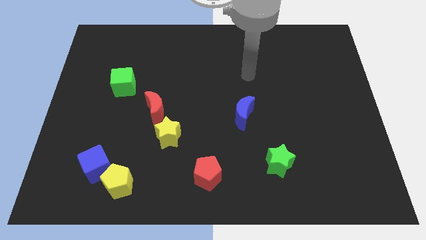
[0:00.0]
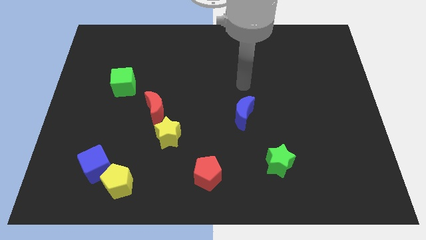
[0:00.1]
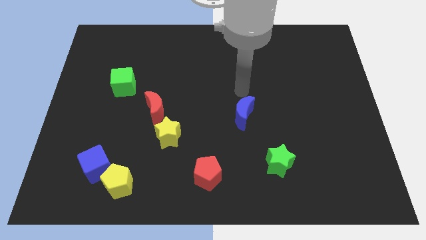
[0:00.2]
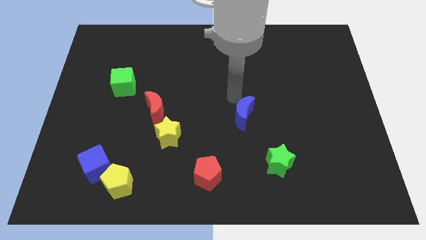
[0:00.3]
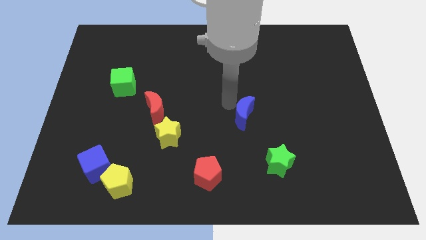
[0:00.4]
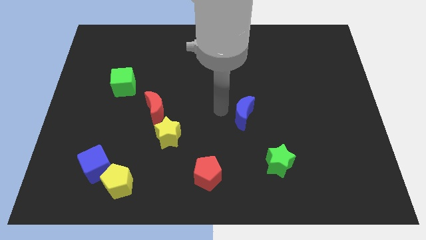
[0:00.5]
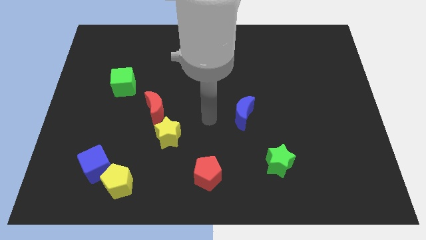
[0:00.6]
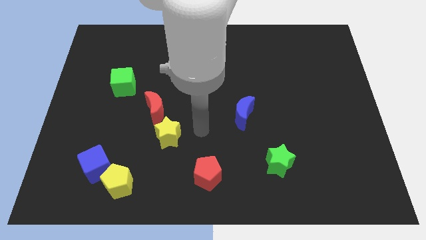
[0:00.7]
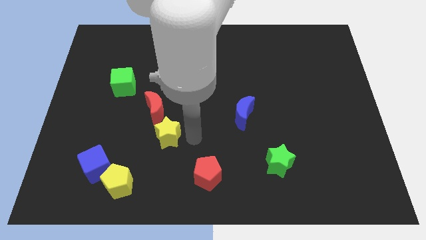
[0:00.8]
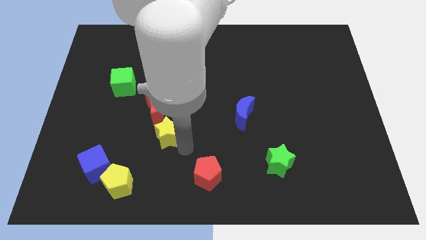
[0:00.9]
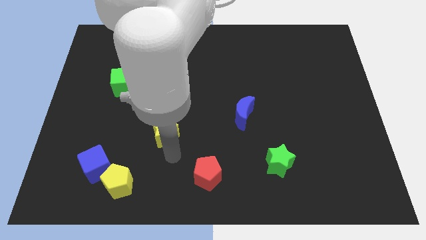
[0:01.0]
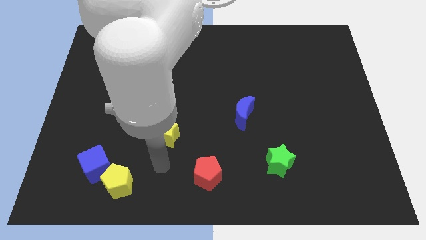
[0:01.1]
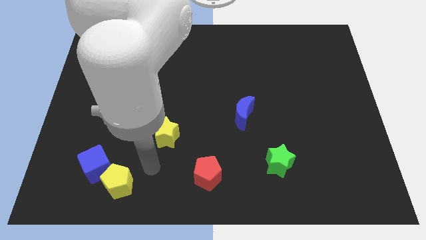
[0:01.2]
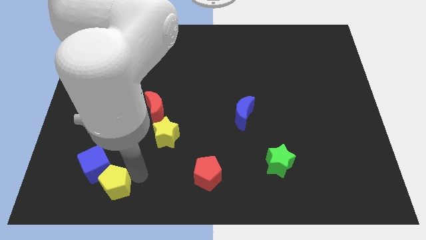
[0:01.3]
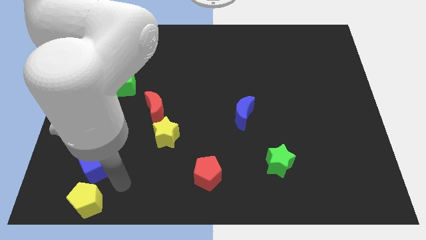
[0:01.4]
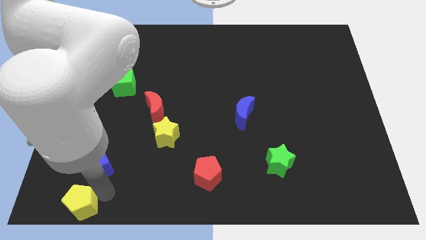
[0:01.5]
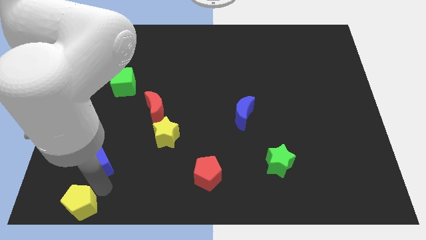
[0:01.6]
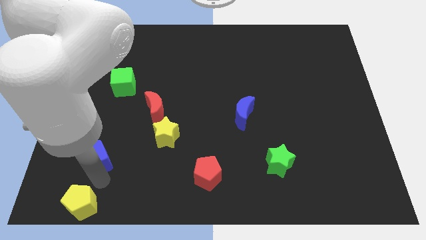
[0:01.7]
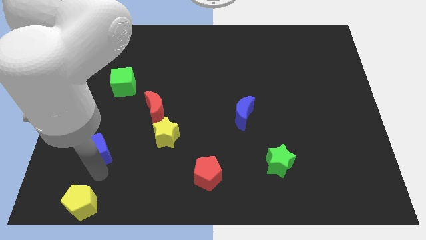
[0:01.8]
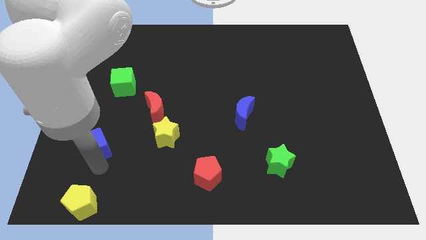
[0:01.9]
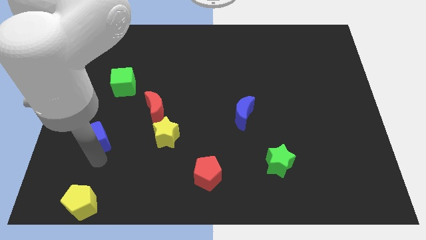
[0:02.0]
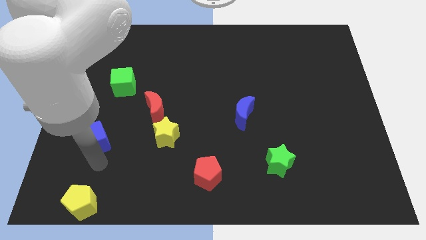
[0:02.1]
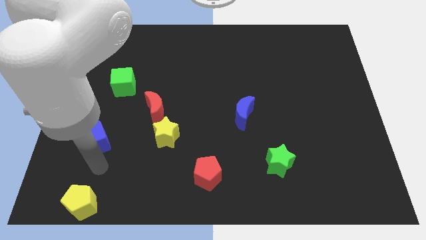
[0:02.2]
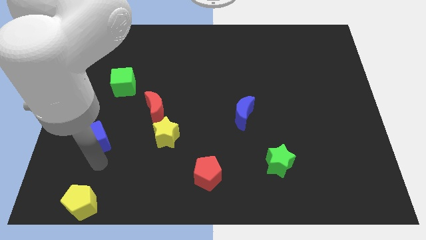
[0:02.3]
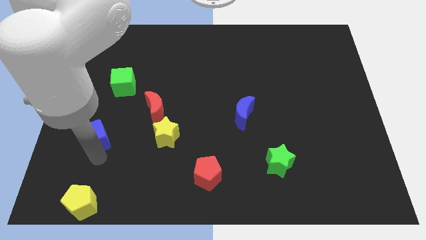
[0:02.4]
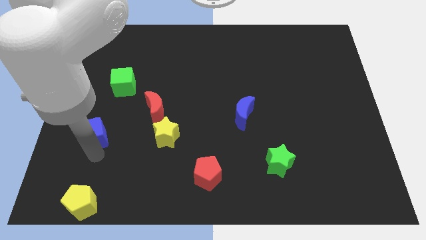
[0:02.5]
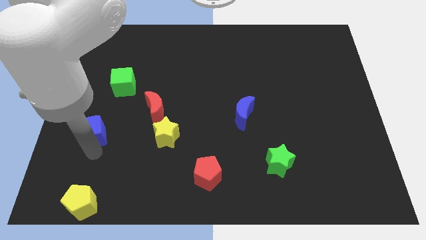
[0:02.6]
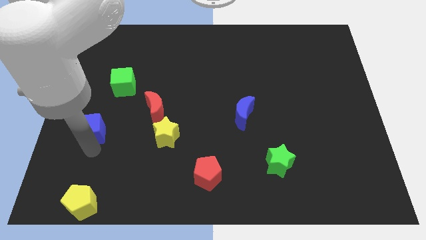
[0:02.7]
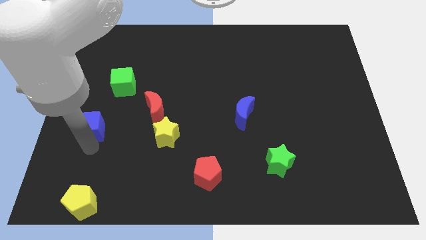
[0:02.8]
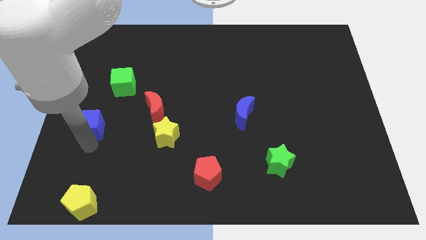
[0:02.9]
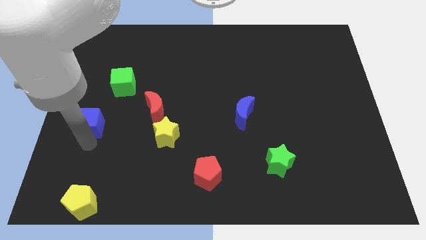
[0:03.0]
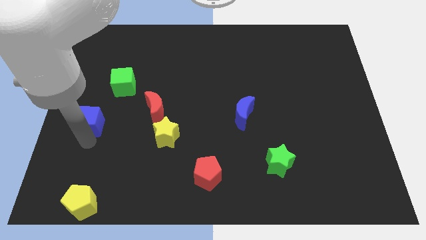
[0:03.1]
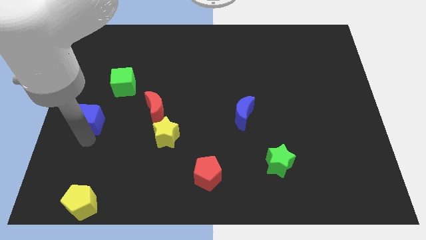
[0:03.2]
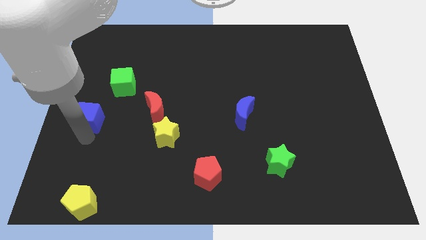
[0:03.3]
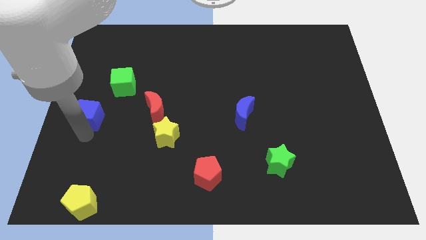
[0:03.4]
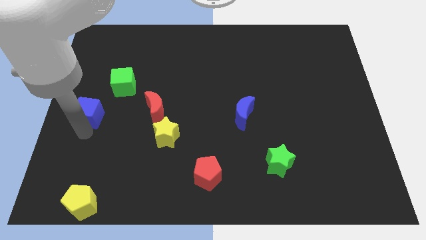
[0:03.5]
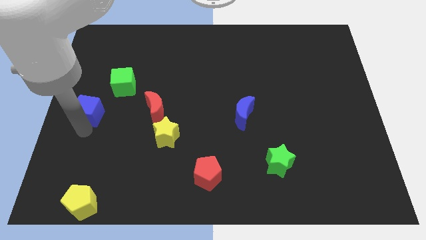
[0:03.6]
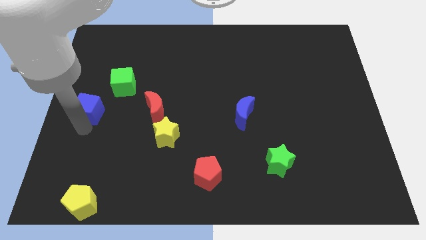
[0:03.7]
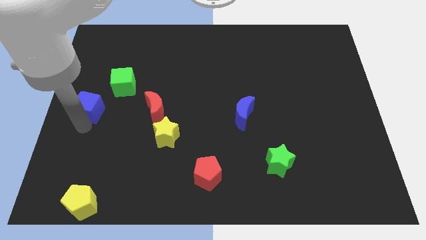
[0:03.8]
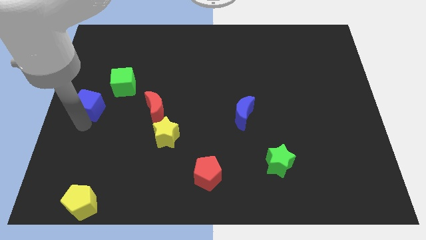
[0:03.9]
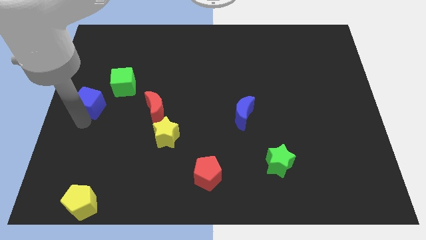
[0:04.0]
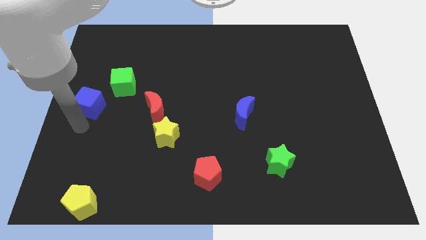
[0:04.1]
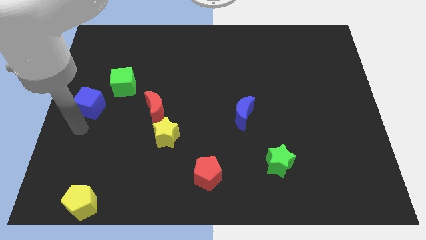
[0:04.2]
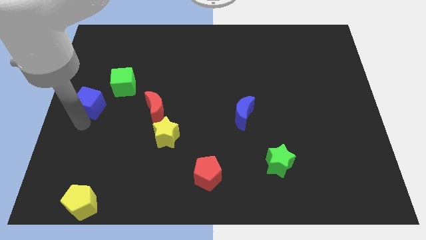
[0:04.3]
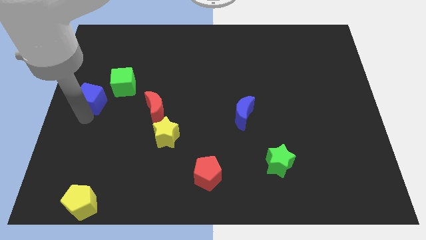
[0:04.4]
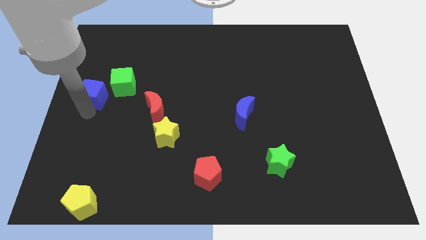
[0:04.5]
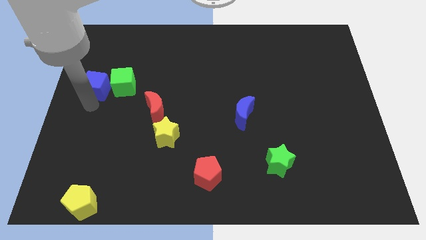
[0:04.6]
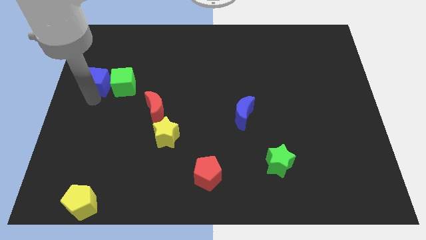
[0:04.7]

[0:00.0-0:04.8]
put the blue cube to the top left side of the green cube

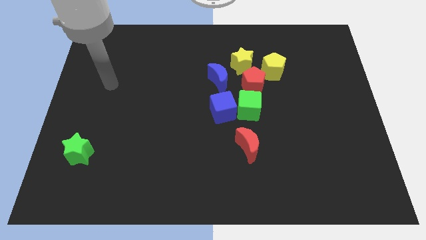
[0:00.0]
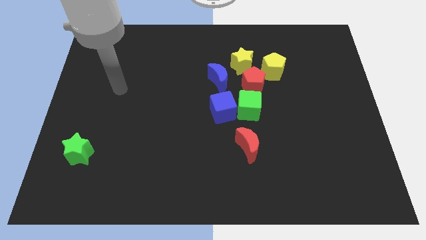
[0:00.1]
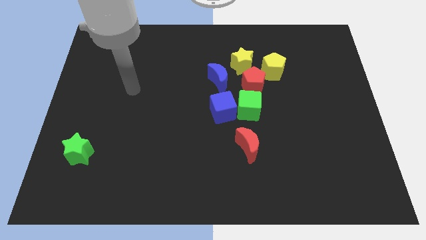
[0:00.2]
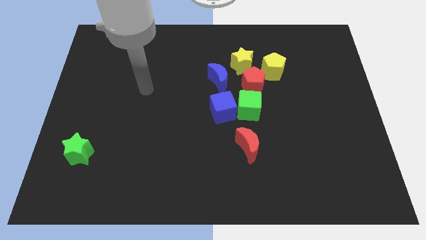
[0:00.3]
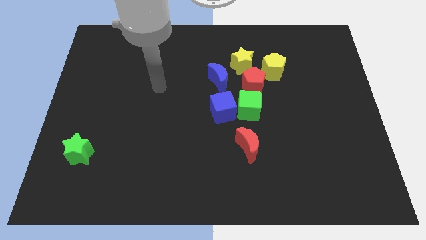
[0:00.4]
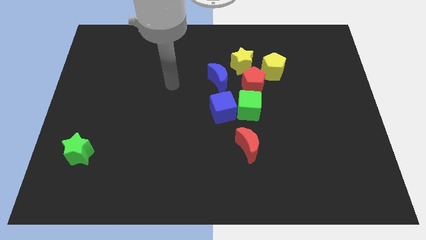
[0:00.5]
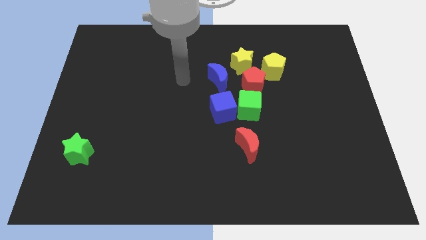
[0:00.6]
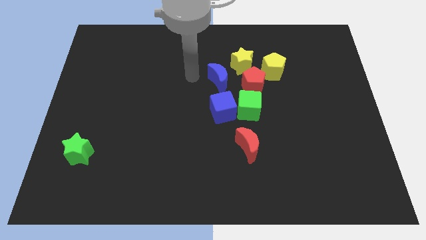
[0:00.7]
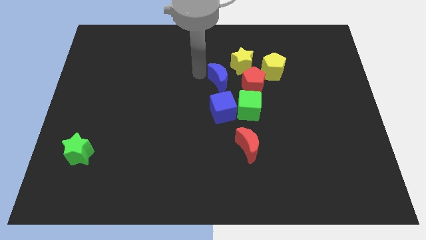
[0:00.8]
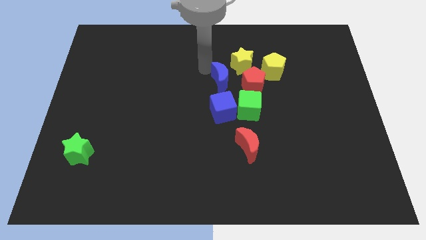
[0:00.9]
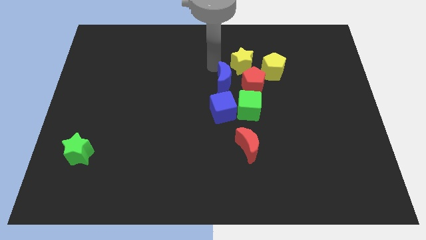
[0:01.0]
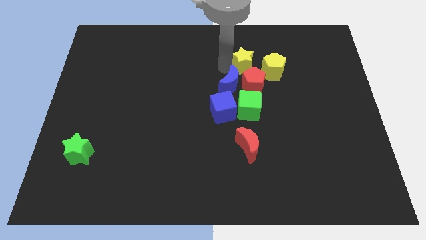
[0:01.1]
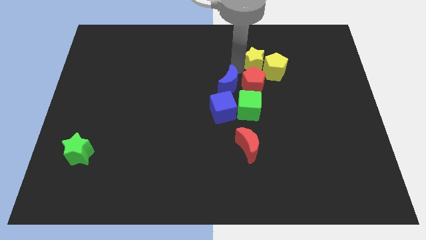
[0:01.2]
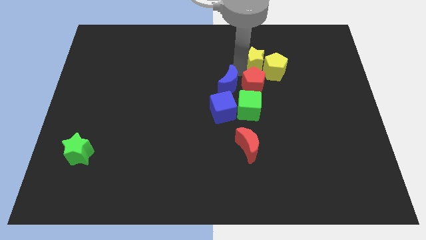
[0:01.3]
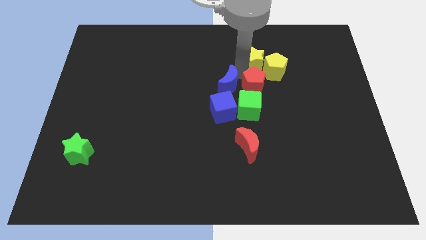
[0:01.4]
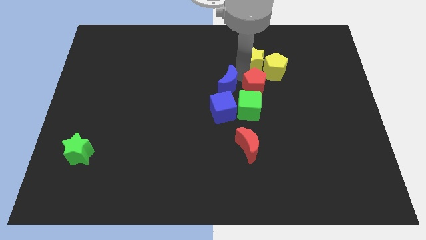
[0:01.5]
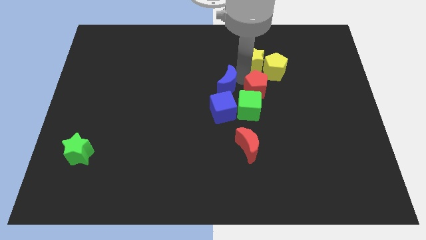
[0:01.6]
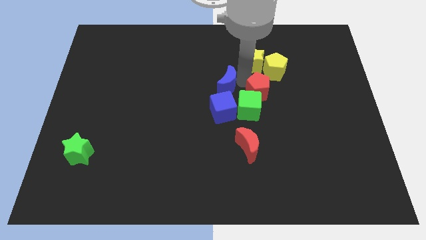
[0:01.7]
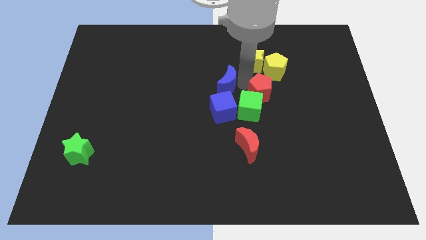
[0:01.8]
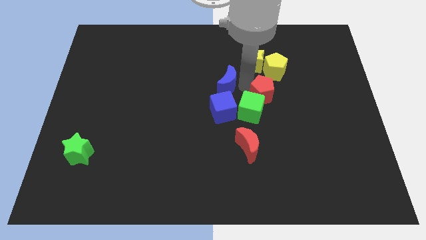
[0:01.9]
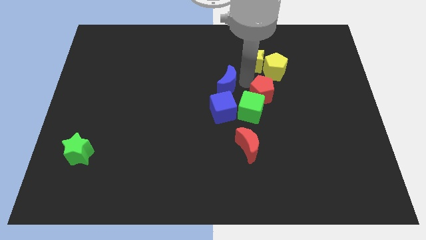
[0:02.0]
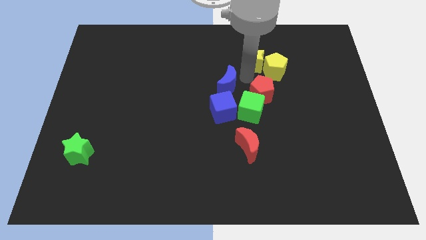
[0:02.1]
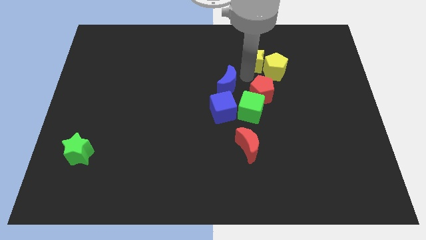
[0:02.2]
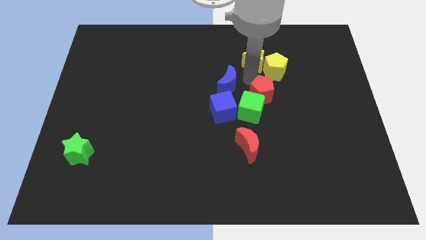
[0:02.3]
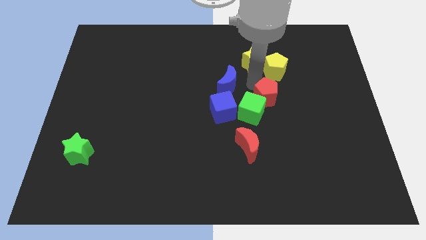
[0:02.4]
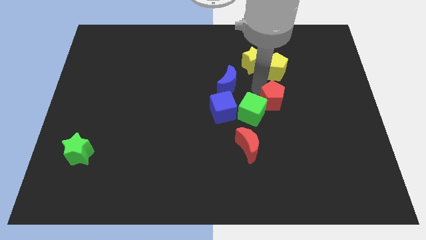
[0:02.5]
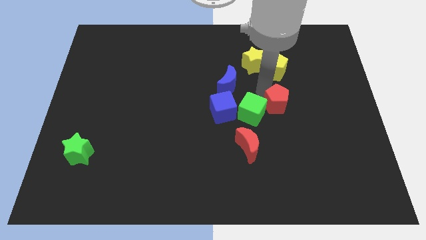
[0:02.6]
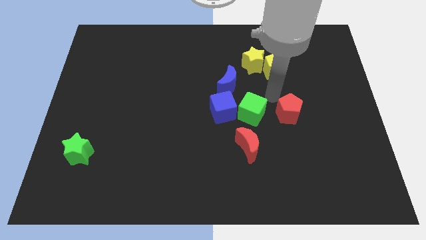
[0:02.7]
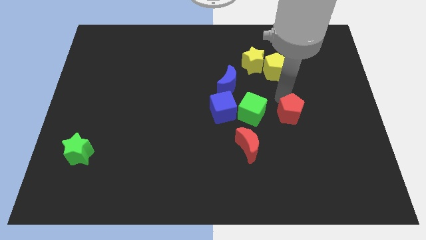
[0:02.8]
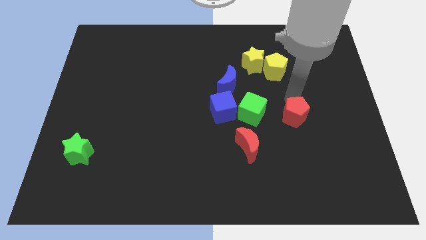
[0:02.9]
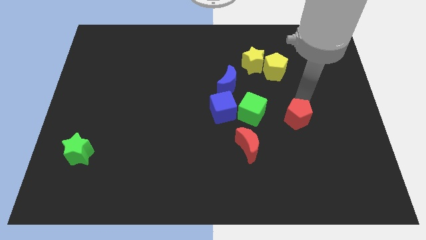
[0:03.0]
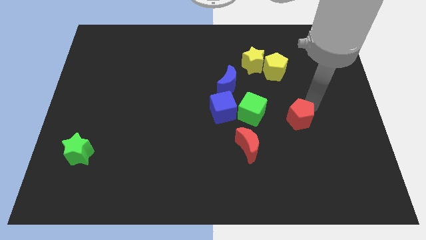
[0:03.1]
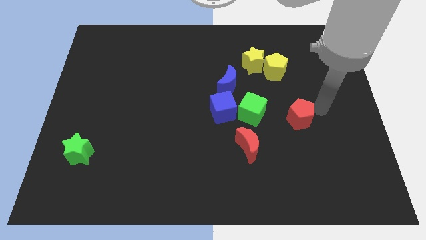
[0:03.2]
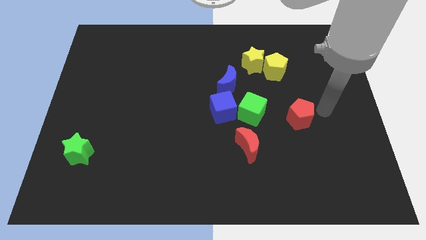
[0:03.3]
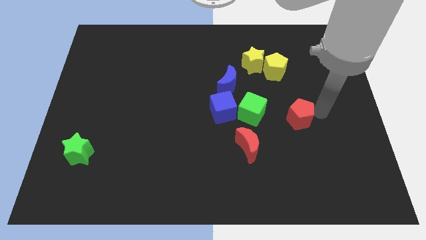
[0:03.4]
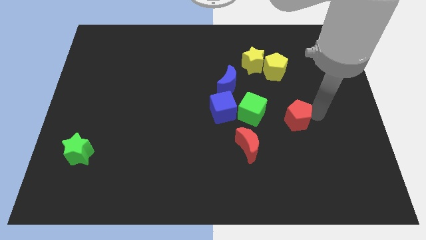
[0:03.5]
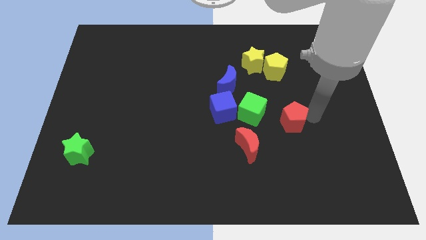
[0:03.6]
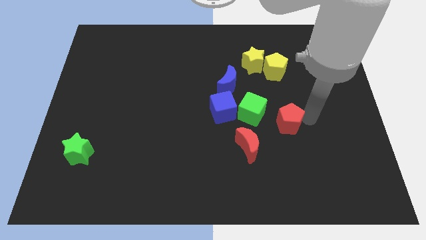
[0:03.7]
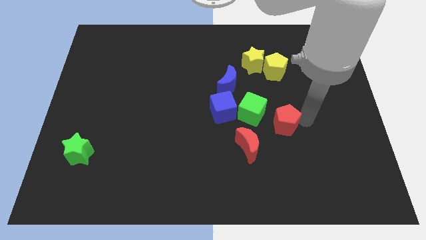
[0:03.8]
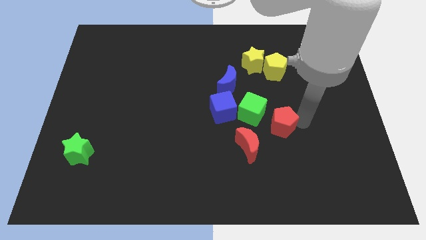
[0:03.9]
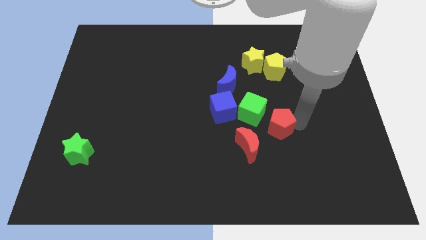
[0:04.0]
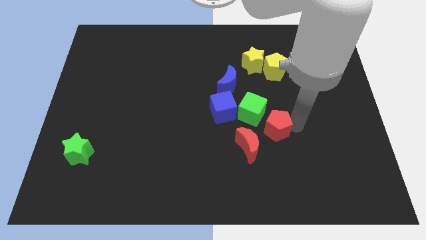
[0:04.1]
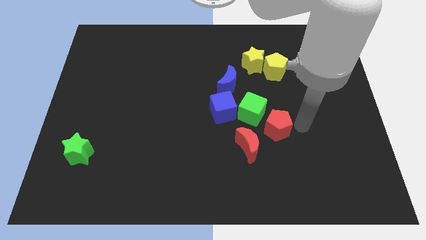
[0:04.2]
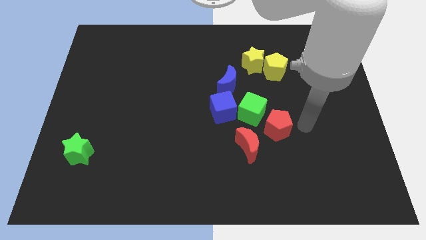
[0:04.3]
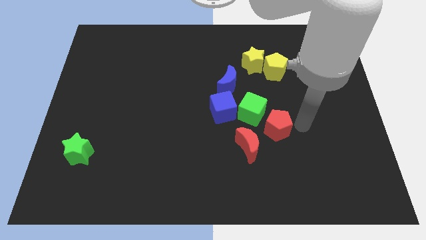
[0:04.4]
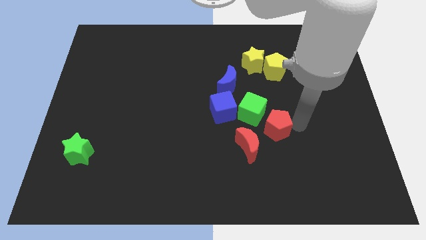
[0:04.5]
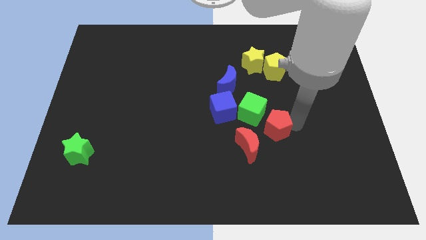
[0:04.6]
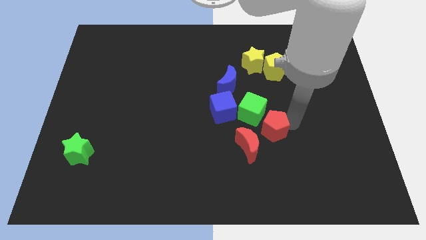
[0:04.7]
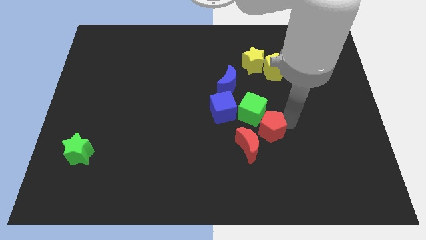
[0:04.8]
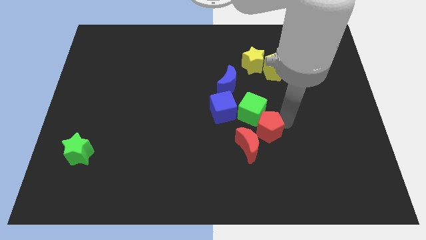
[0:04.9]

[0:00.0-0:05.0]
put the red pentagon to the bottom right of the blue cube
